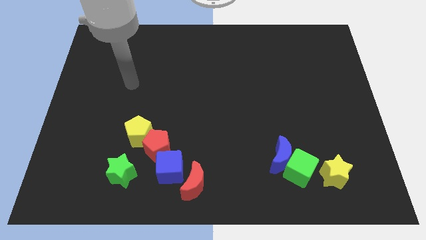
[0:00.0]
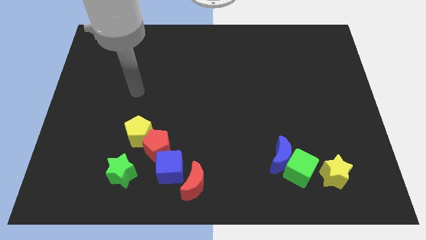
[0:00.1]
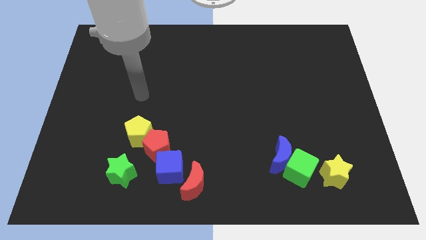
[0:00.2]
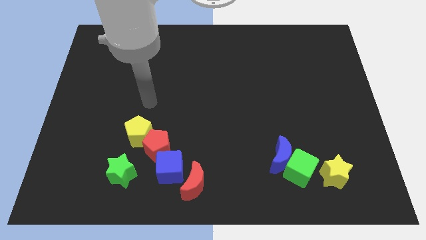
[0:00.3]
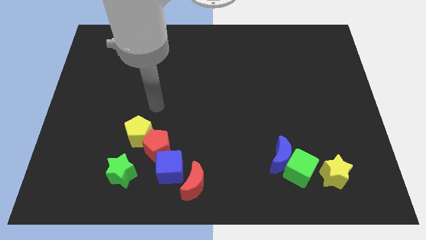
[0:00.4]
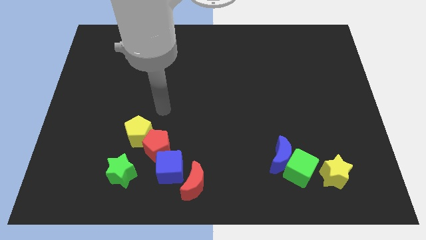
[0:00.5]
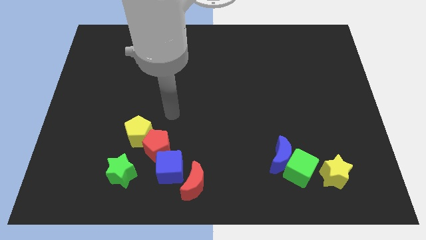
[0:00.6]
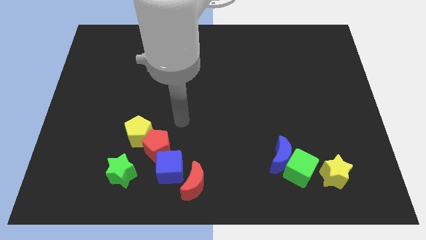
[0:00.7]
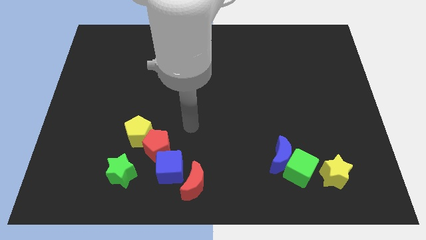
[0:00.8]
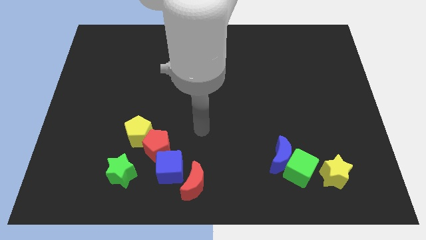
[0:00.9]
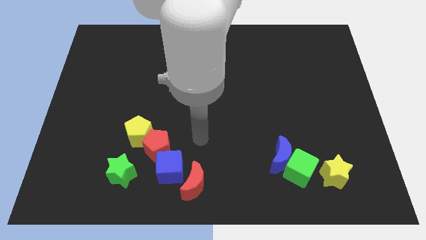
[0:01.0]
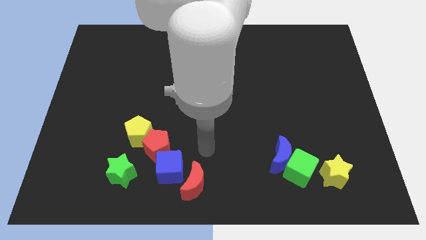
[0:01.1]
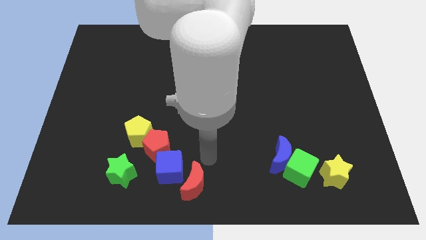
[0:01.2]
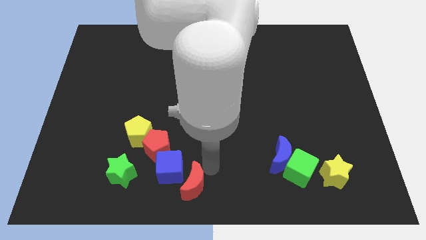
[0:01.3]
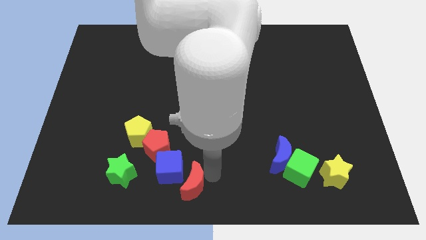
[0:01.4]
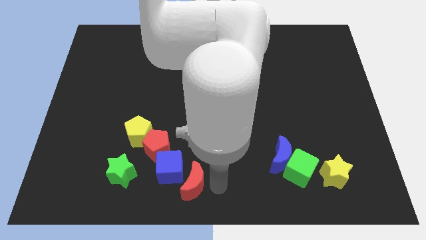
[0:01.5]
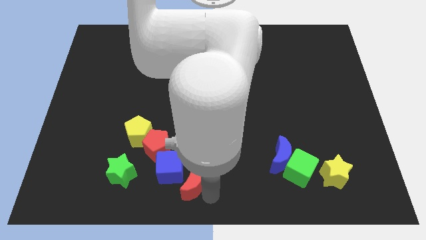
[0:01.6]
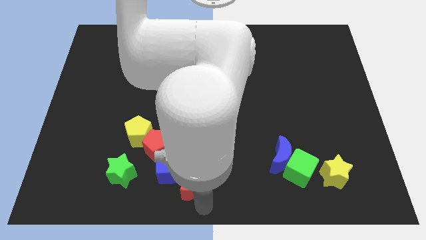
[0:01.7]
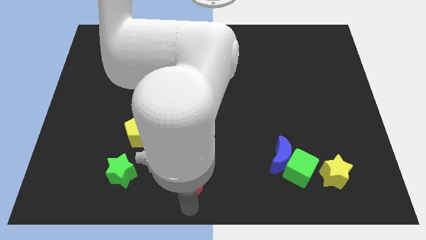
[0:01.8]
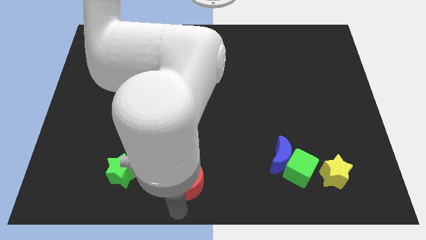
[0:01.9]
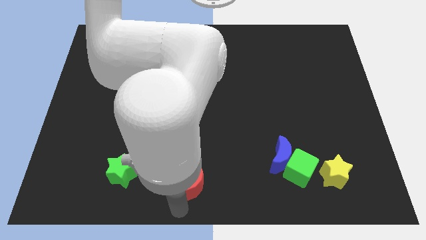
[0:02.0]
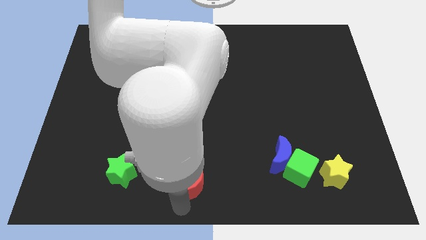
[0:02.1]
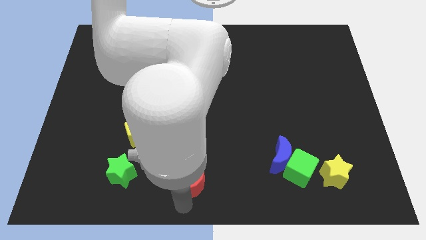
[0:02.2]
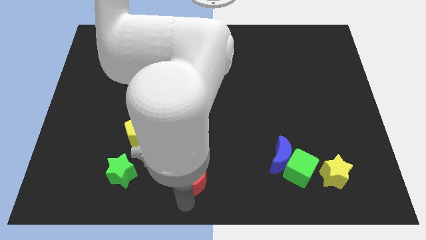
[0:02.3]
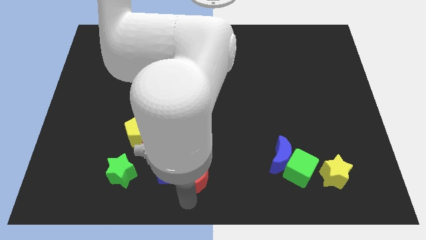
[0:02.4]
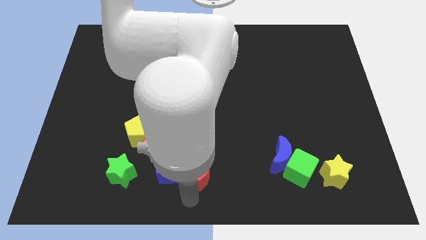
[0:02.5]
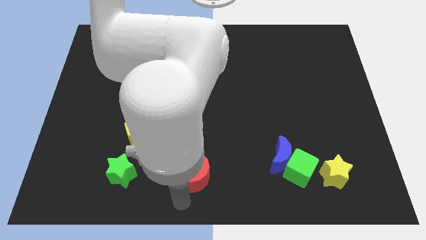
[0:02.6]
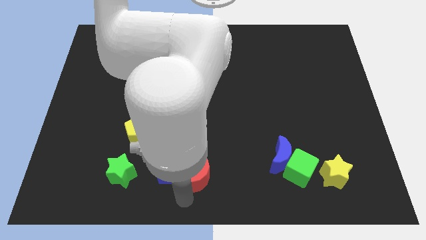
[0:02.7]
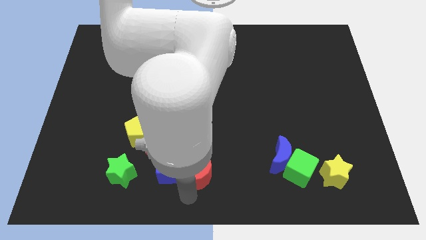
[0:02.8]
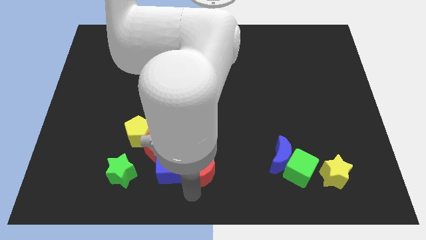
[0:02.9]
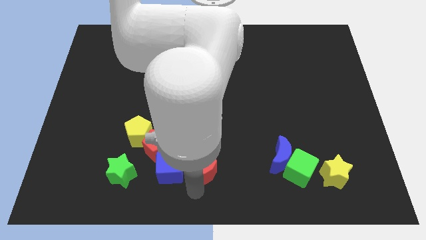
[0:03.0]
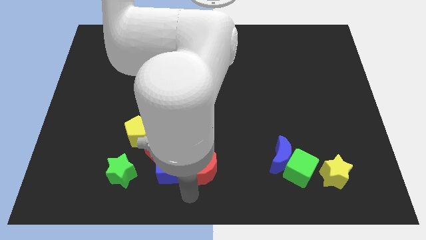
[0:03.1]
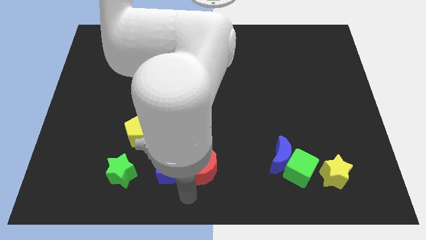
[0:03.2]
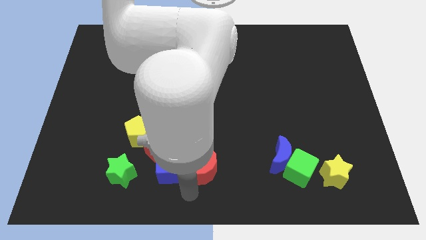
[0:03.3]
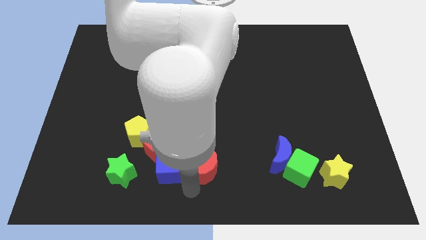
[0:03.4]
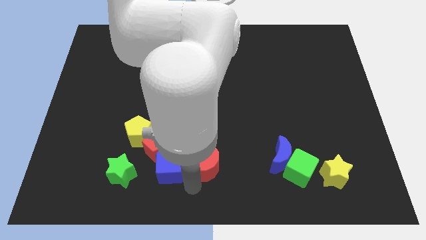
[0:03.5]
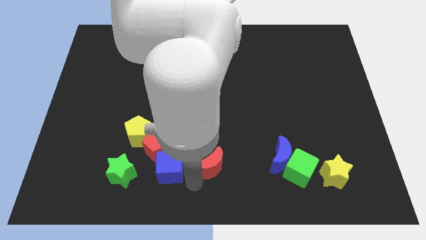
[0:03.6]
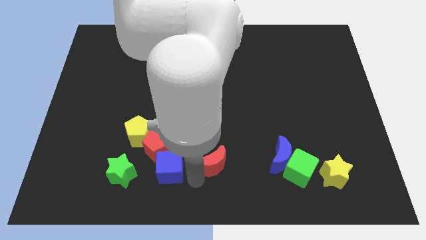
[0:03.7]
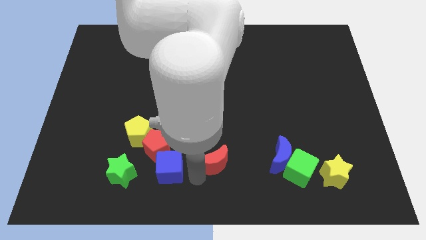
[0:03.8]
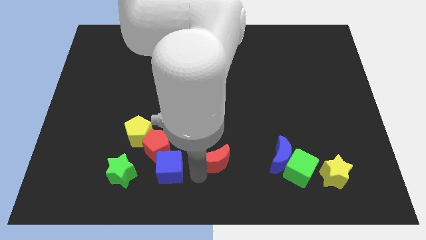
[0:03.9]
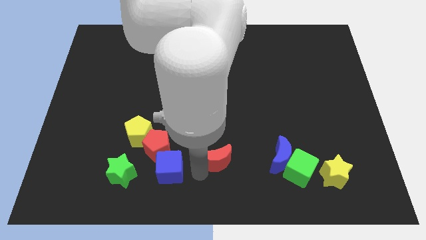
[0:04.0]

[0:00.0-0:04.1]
slightly move the red moon up and right

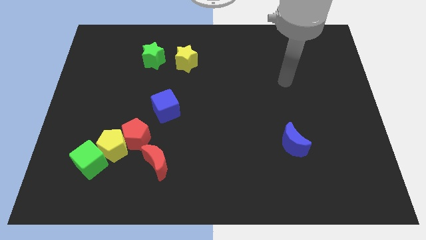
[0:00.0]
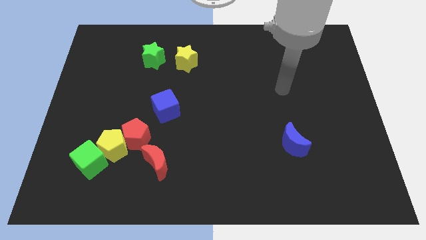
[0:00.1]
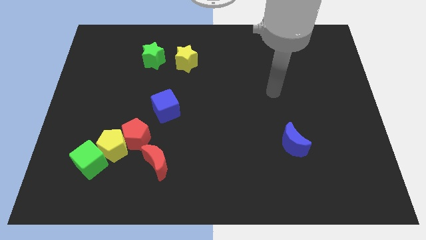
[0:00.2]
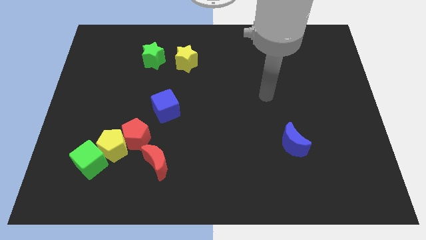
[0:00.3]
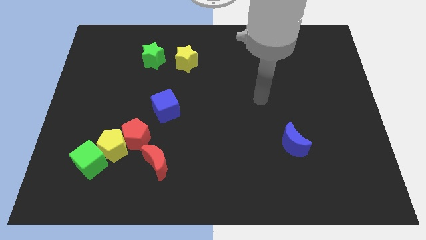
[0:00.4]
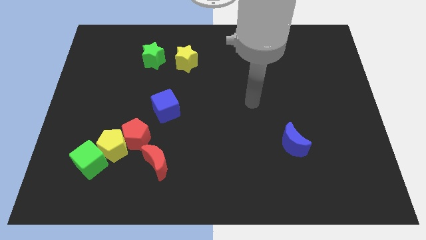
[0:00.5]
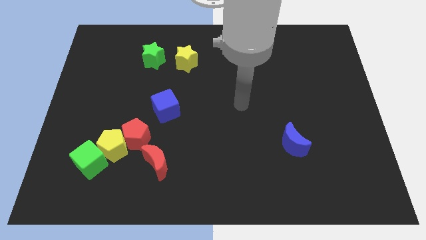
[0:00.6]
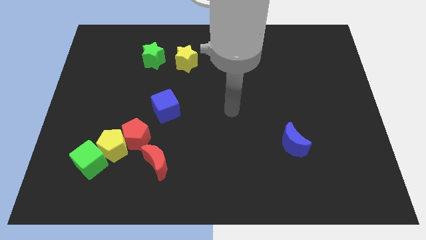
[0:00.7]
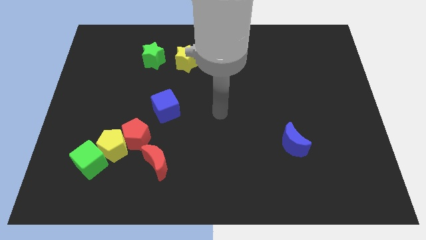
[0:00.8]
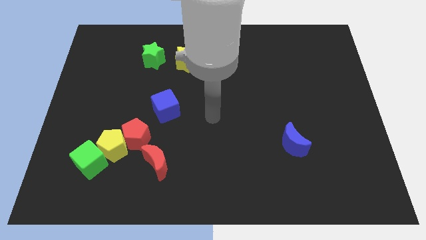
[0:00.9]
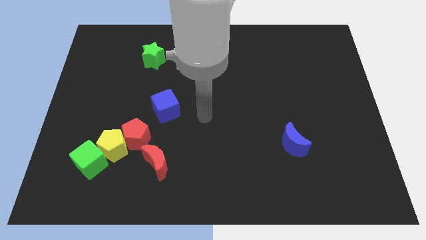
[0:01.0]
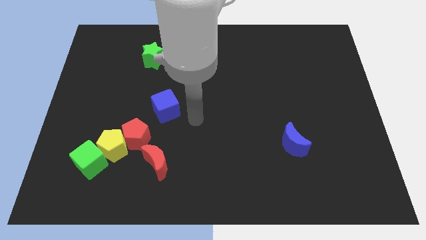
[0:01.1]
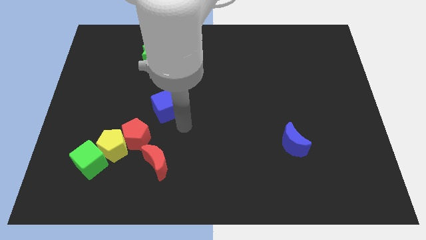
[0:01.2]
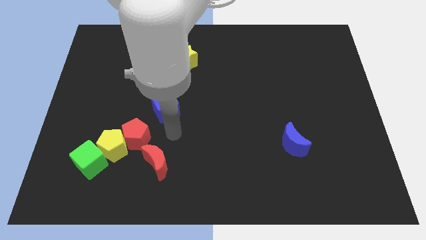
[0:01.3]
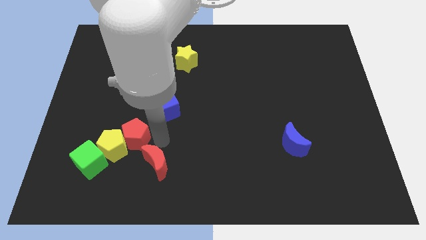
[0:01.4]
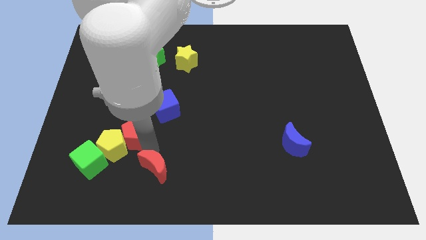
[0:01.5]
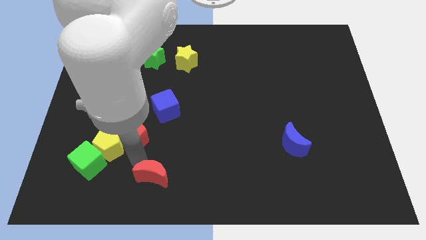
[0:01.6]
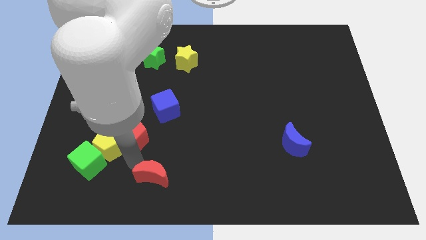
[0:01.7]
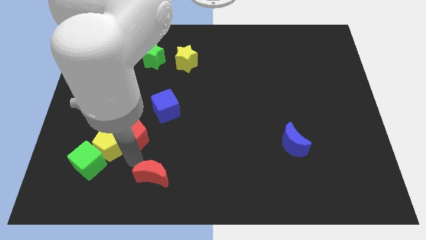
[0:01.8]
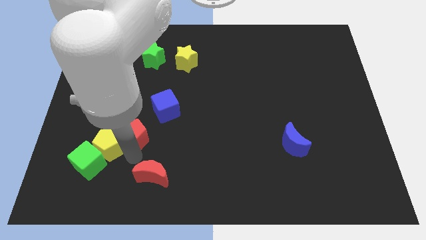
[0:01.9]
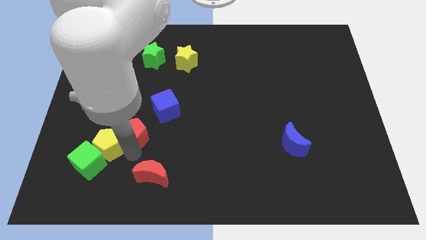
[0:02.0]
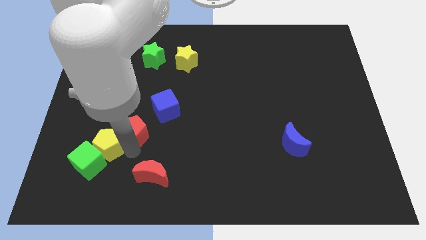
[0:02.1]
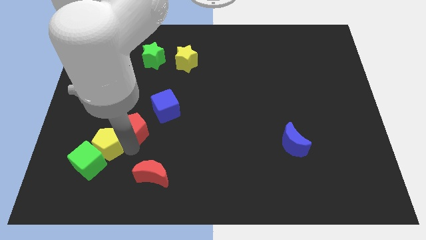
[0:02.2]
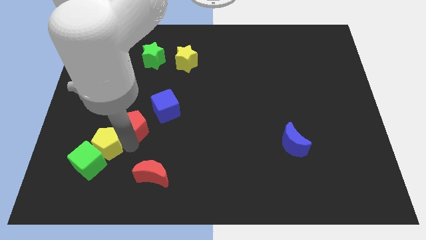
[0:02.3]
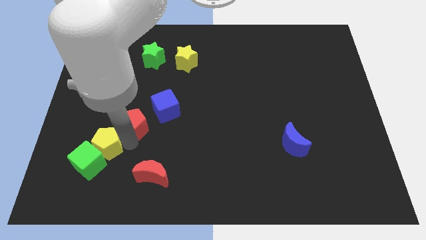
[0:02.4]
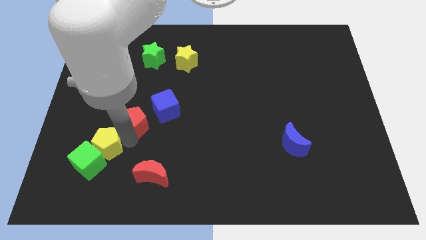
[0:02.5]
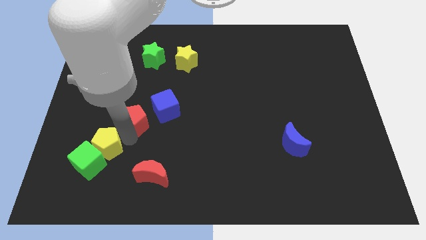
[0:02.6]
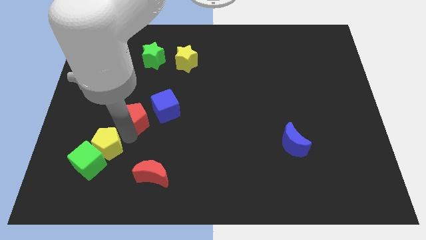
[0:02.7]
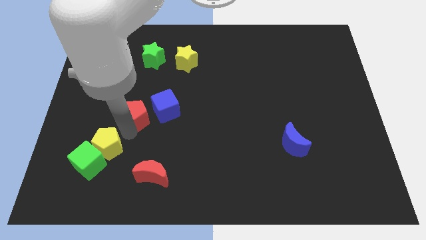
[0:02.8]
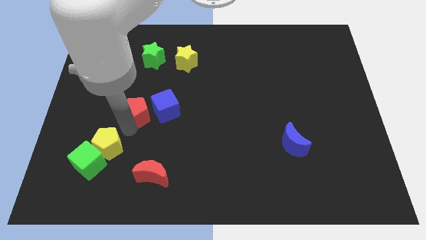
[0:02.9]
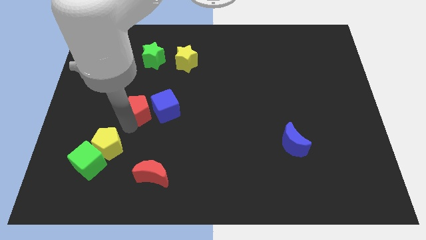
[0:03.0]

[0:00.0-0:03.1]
slightly slide the red pentagon up

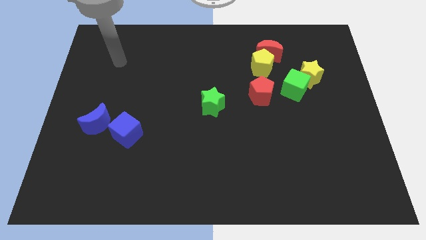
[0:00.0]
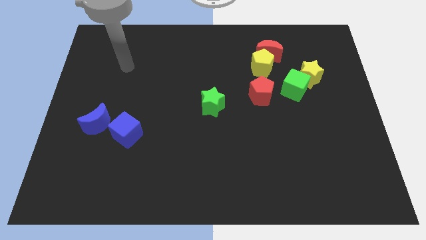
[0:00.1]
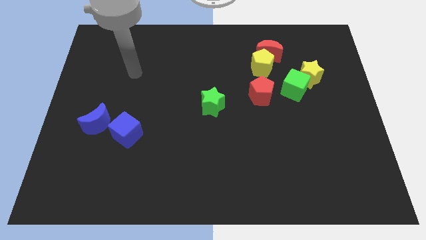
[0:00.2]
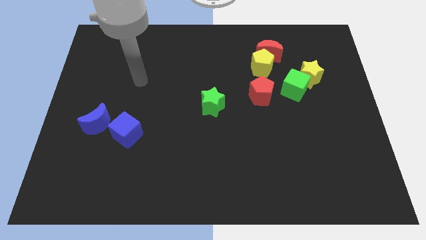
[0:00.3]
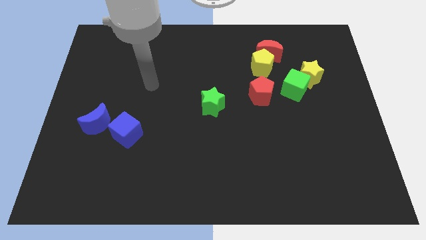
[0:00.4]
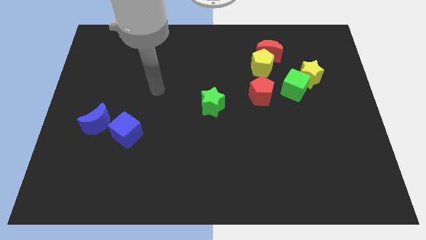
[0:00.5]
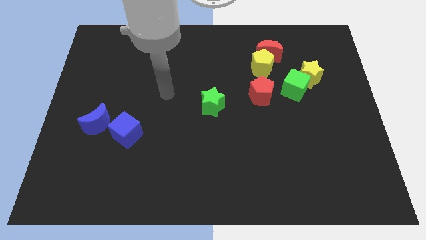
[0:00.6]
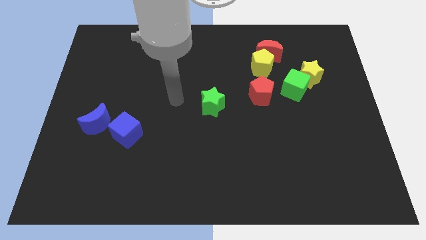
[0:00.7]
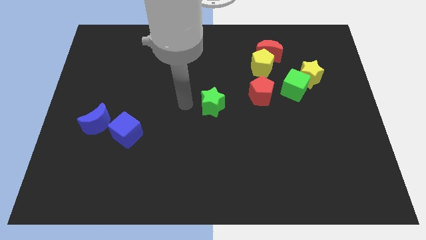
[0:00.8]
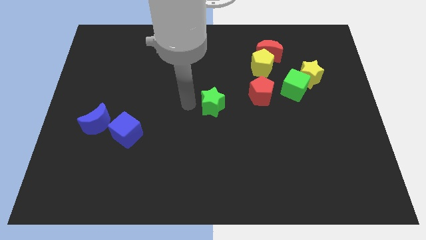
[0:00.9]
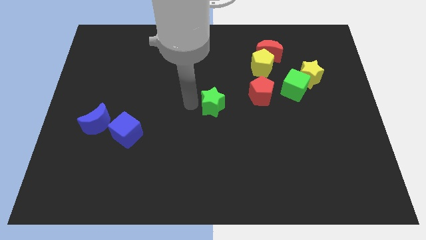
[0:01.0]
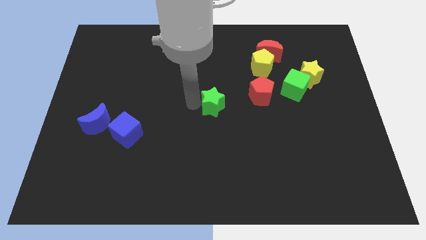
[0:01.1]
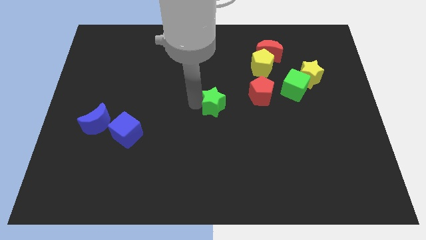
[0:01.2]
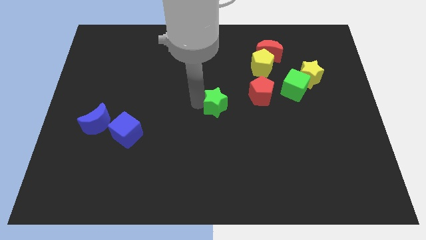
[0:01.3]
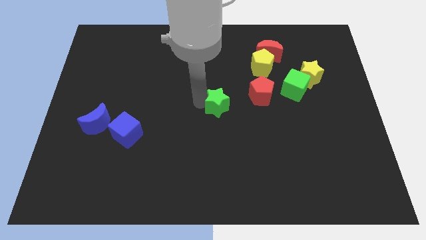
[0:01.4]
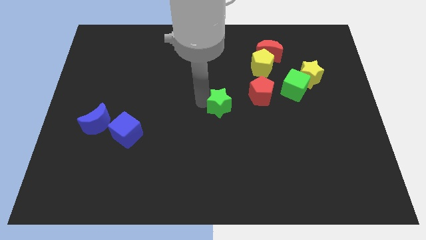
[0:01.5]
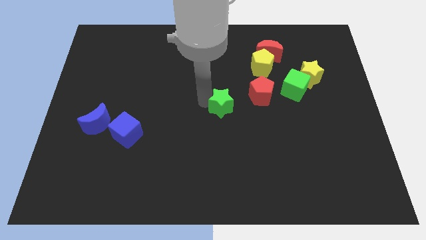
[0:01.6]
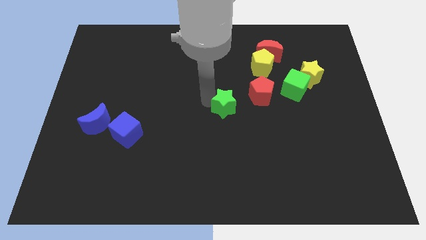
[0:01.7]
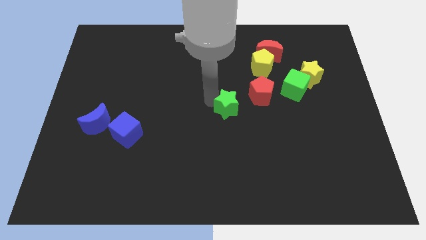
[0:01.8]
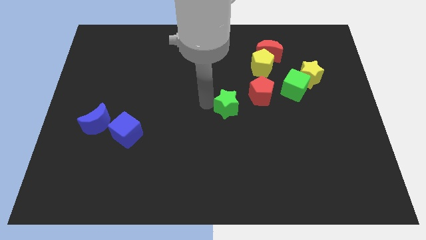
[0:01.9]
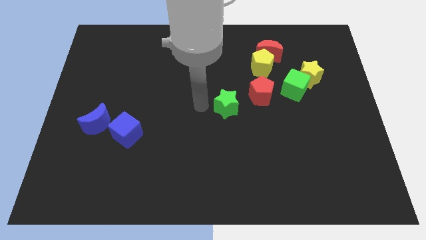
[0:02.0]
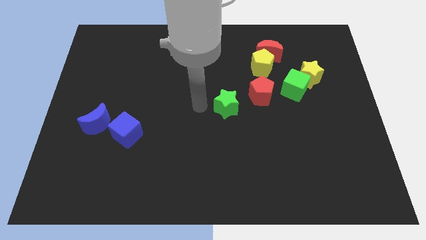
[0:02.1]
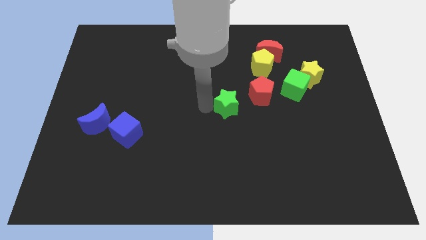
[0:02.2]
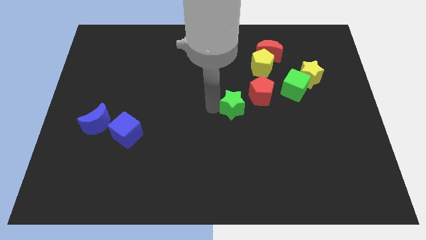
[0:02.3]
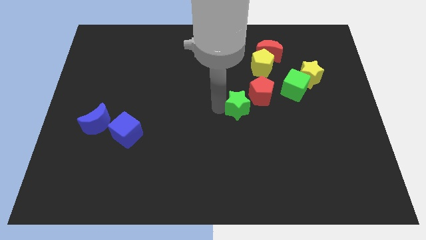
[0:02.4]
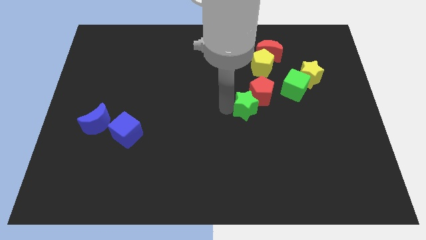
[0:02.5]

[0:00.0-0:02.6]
move the green star to the right a little bit
